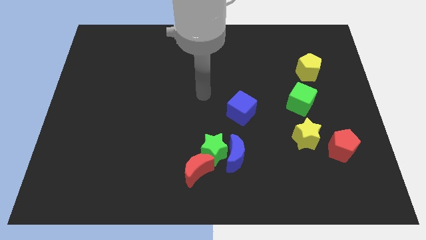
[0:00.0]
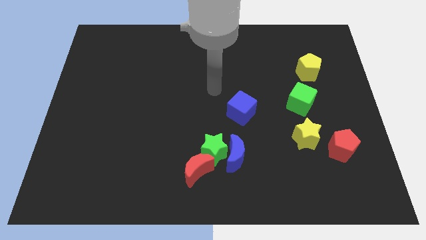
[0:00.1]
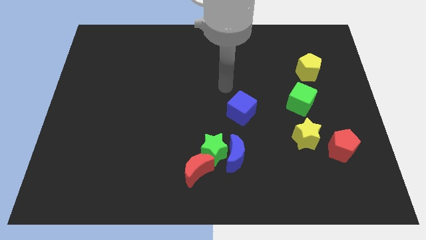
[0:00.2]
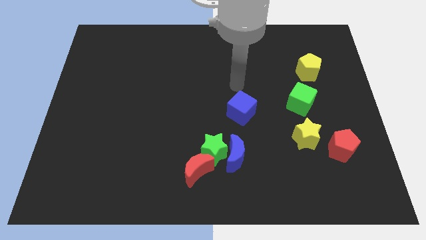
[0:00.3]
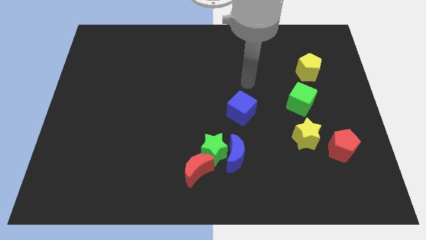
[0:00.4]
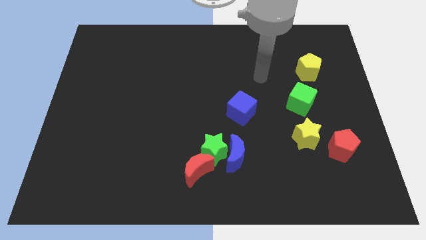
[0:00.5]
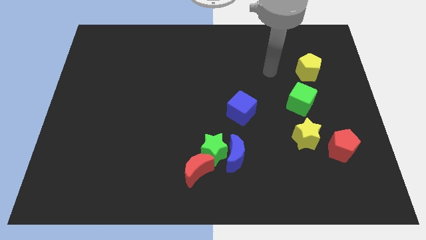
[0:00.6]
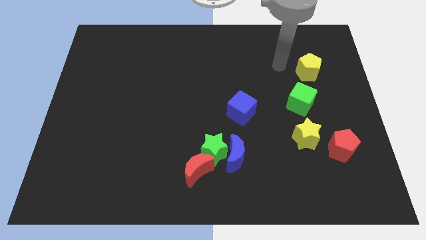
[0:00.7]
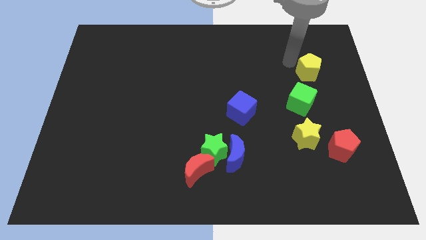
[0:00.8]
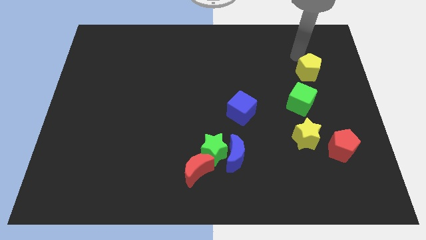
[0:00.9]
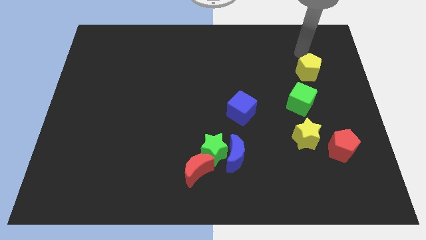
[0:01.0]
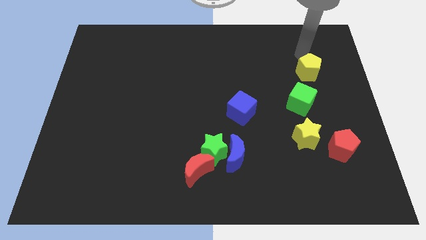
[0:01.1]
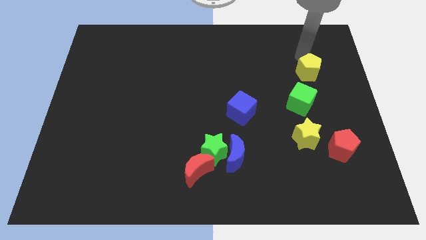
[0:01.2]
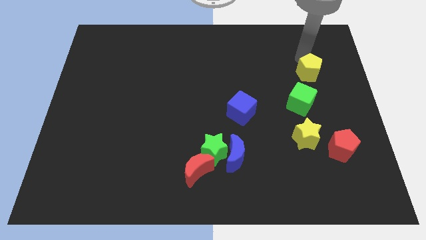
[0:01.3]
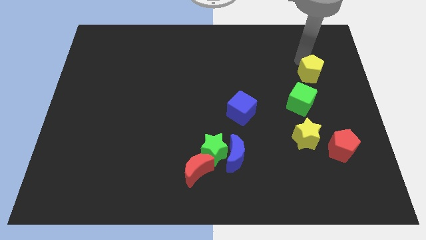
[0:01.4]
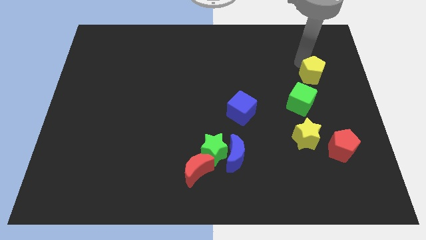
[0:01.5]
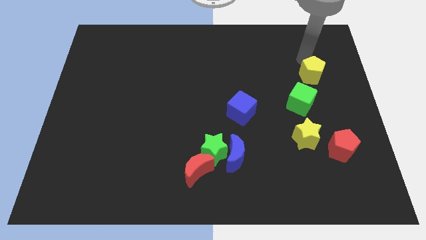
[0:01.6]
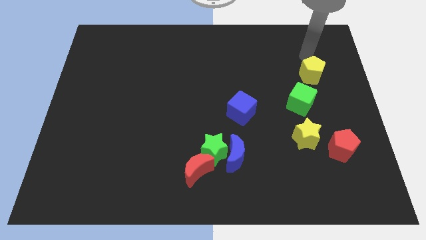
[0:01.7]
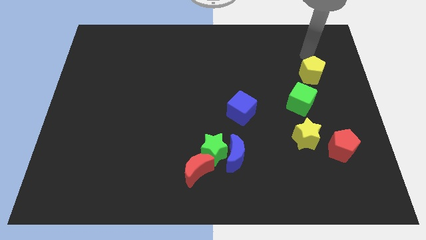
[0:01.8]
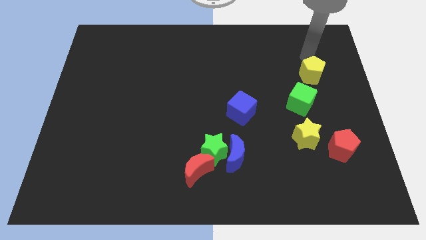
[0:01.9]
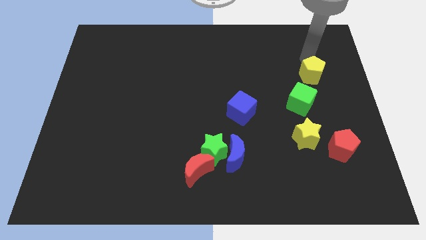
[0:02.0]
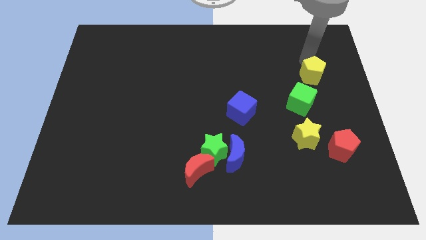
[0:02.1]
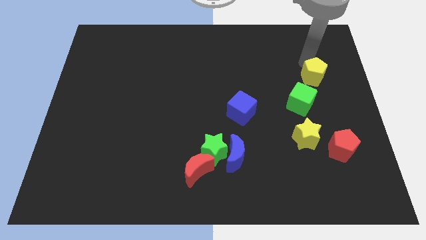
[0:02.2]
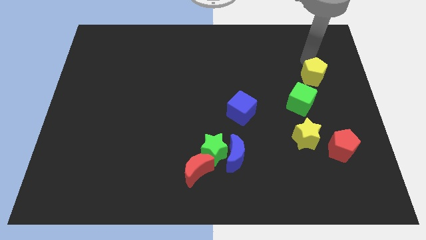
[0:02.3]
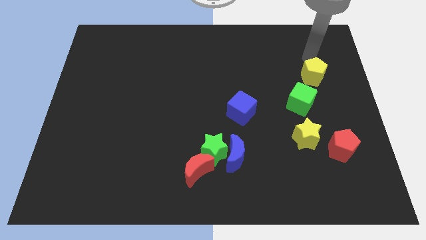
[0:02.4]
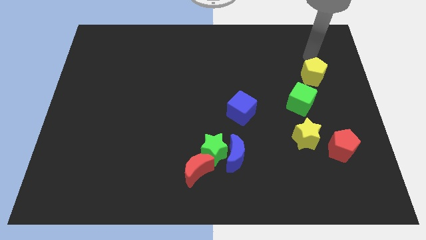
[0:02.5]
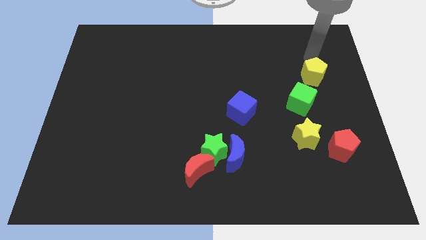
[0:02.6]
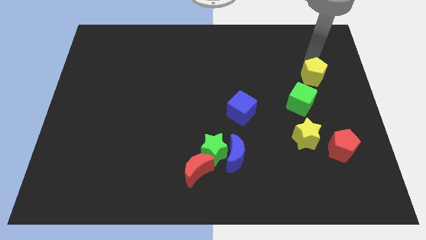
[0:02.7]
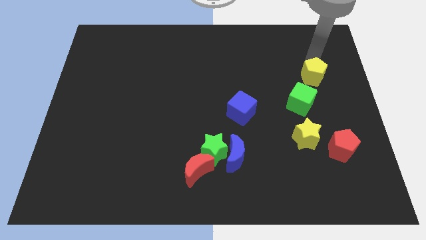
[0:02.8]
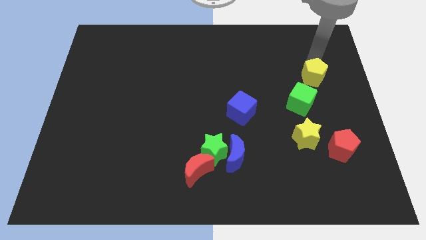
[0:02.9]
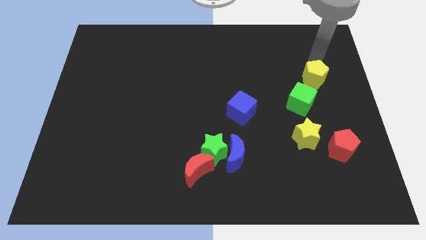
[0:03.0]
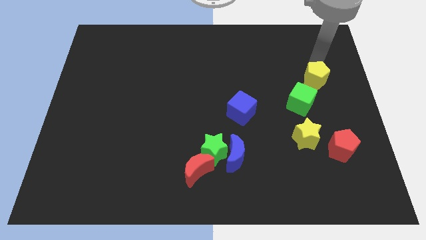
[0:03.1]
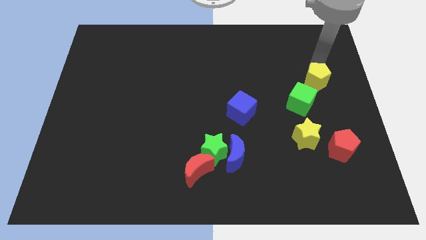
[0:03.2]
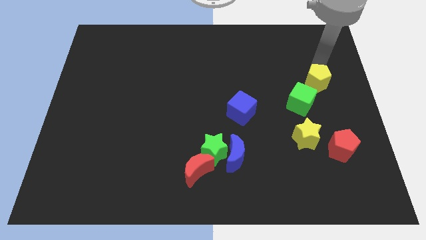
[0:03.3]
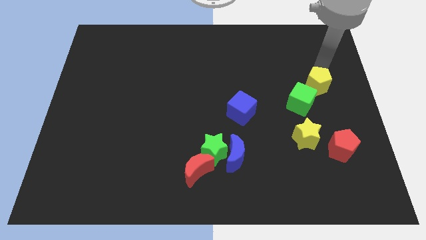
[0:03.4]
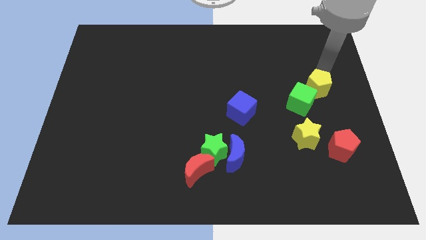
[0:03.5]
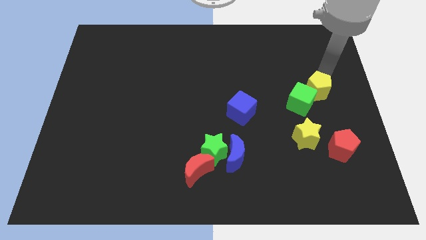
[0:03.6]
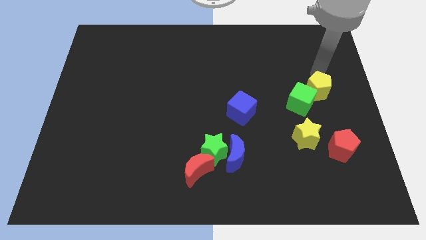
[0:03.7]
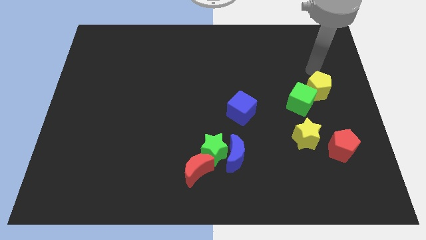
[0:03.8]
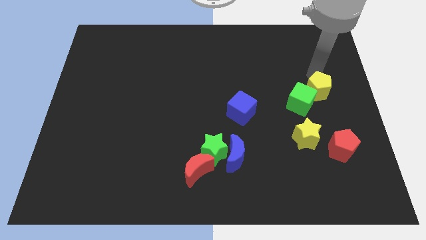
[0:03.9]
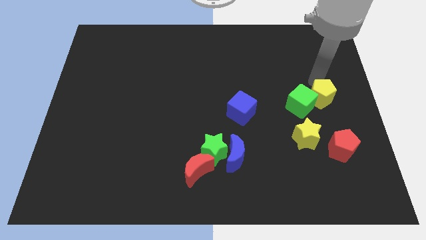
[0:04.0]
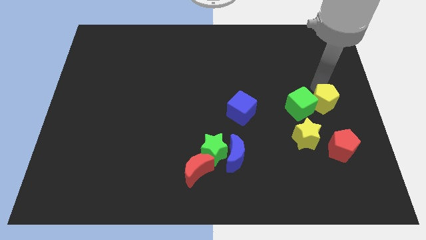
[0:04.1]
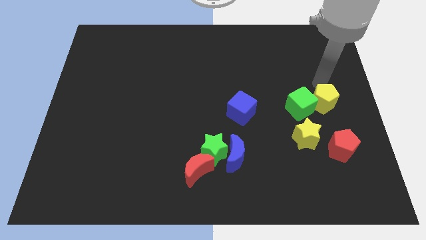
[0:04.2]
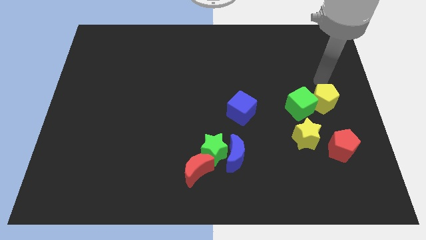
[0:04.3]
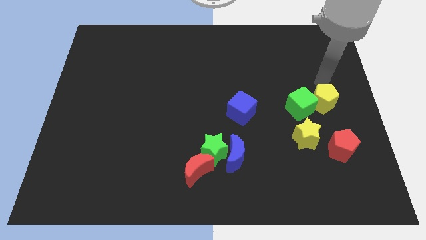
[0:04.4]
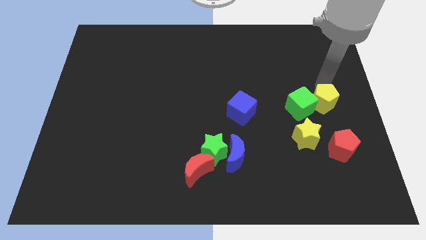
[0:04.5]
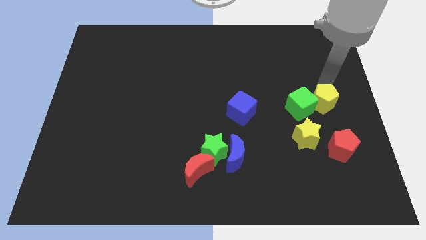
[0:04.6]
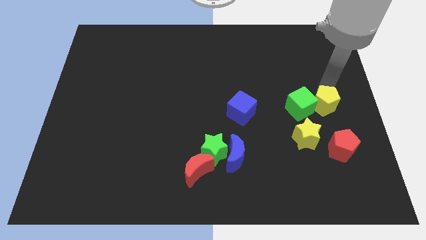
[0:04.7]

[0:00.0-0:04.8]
put the yellow pentagon to the bottom right side of the green cube

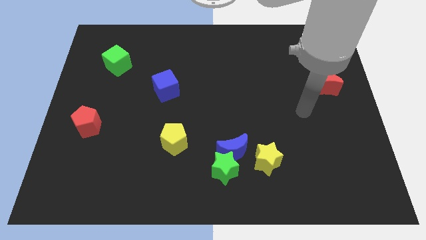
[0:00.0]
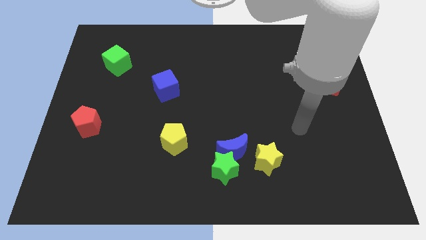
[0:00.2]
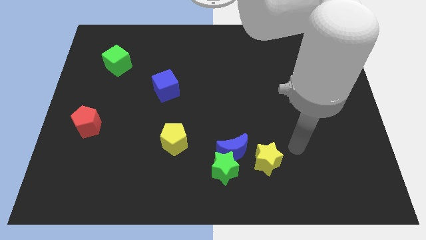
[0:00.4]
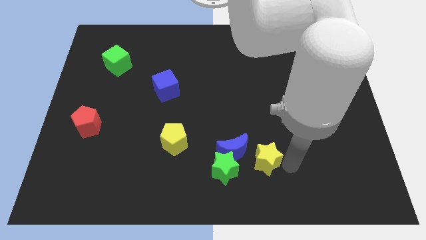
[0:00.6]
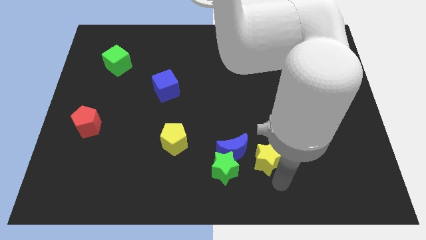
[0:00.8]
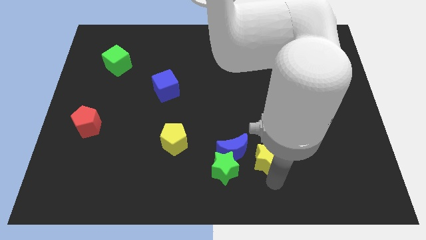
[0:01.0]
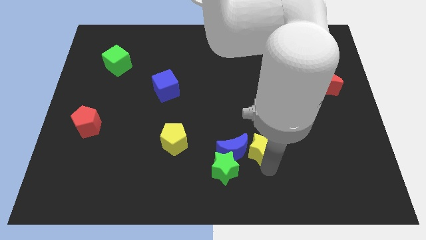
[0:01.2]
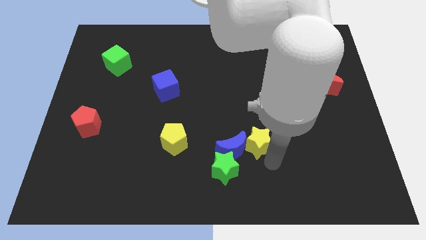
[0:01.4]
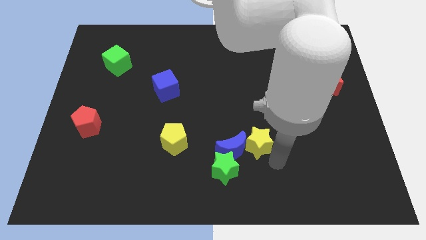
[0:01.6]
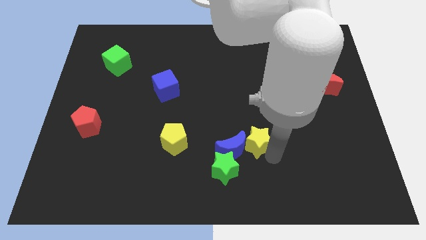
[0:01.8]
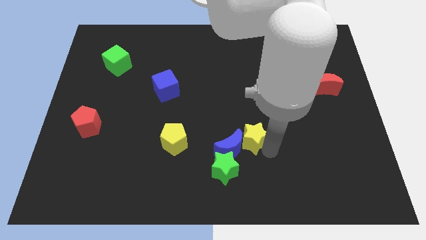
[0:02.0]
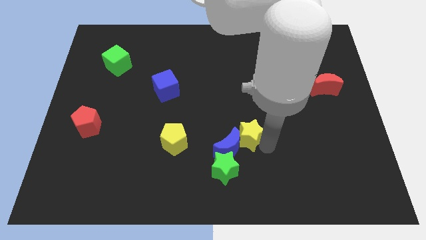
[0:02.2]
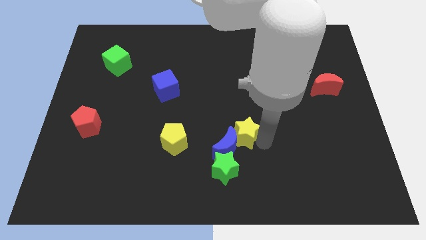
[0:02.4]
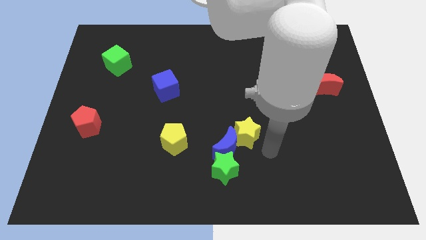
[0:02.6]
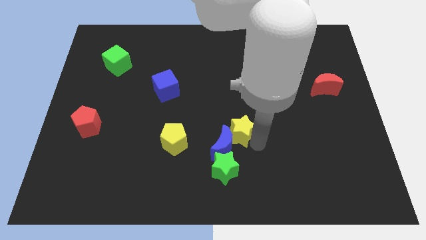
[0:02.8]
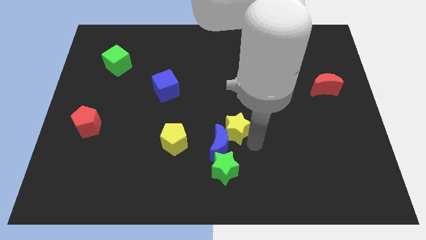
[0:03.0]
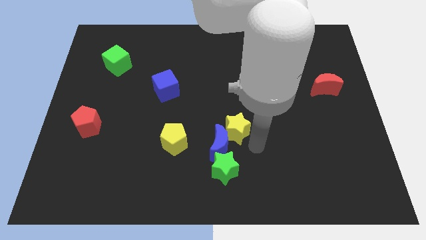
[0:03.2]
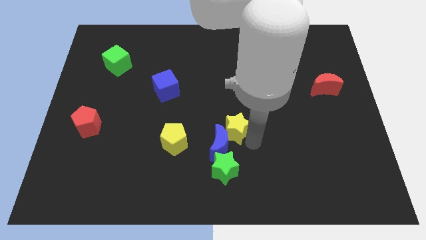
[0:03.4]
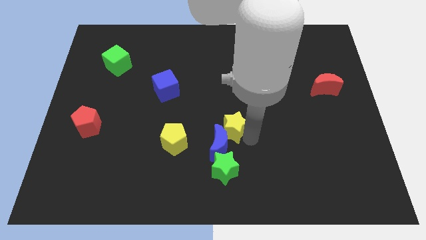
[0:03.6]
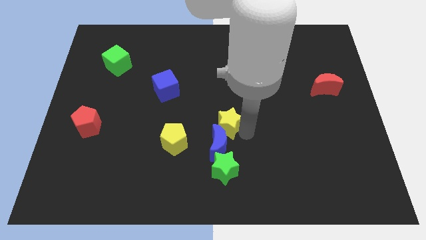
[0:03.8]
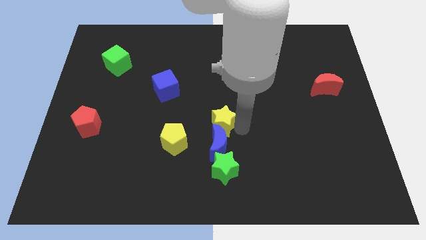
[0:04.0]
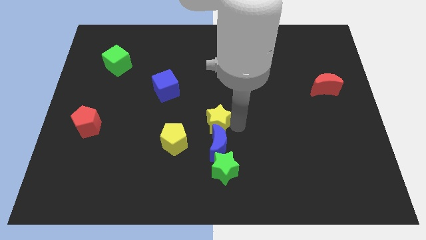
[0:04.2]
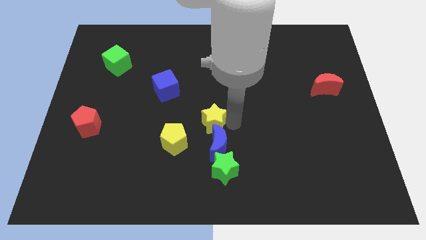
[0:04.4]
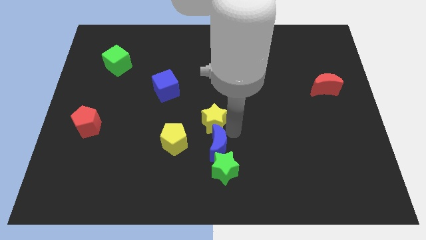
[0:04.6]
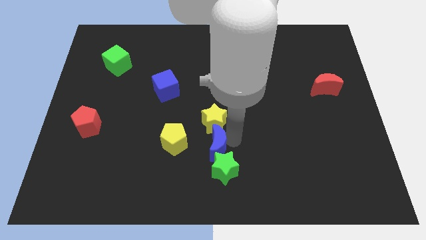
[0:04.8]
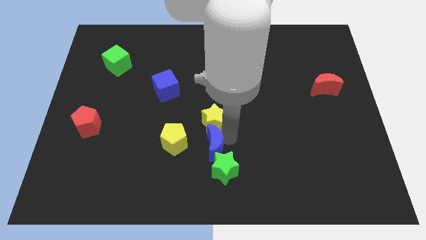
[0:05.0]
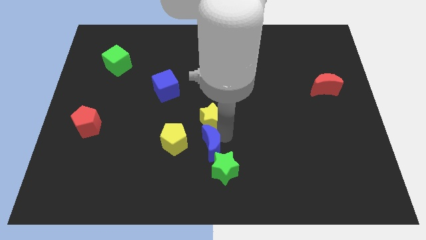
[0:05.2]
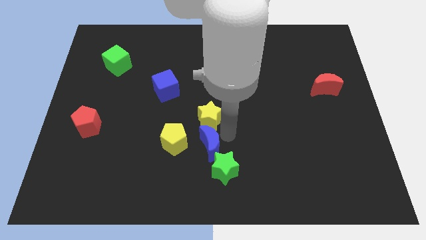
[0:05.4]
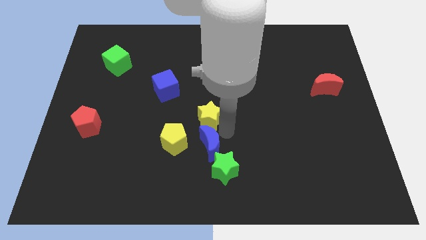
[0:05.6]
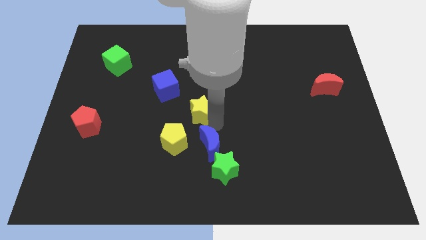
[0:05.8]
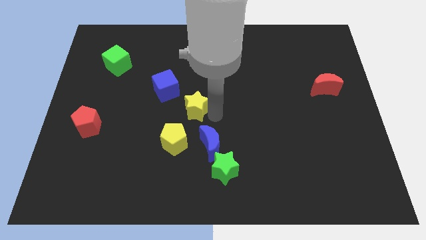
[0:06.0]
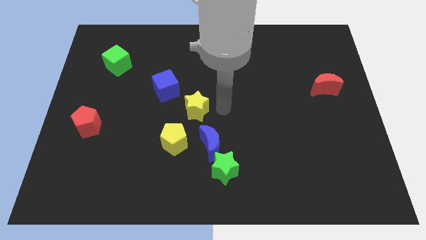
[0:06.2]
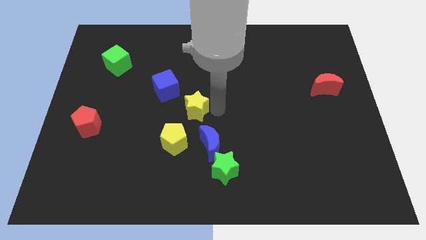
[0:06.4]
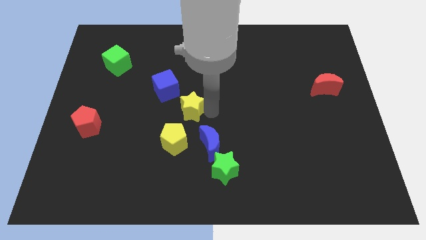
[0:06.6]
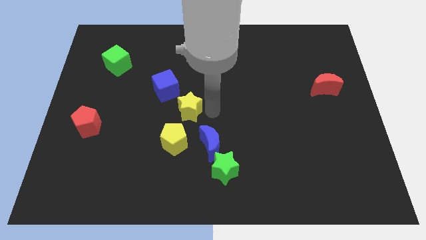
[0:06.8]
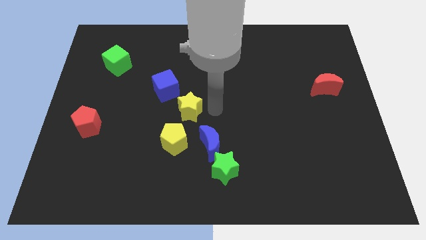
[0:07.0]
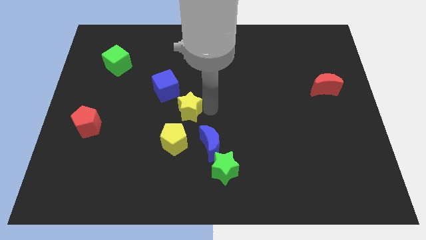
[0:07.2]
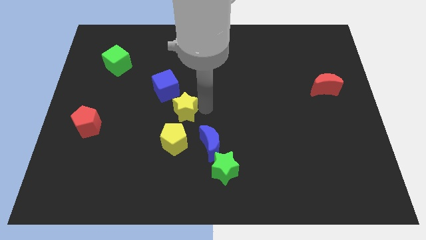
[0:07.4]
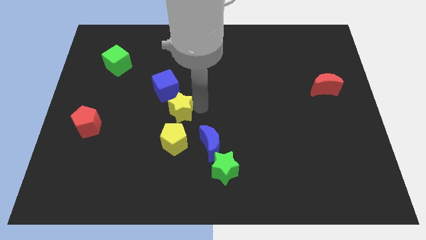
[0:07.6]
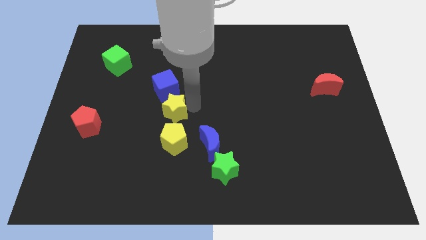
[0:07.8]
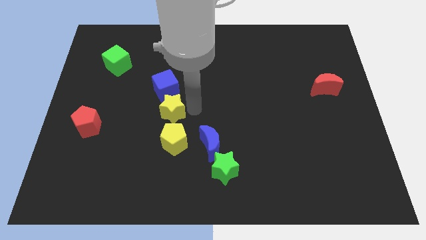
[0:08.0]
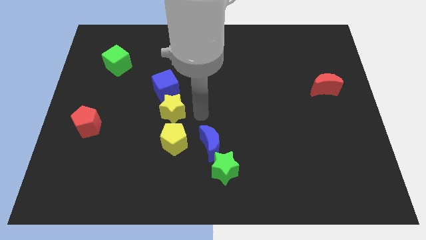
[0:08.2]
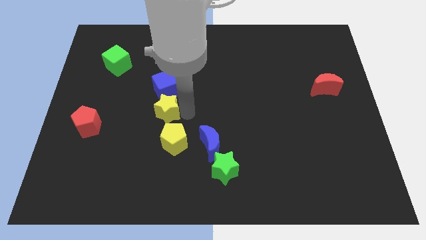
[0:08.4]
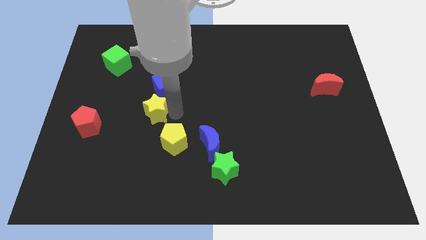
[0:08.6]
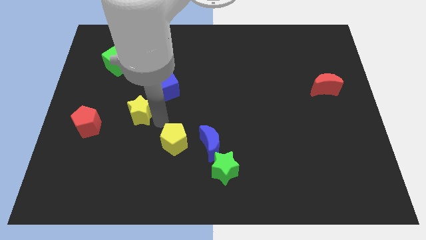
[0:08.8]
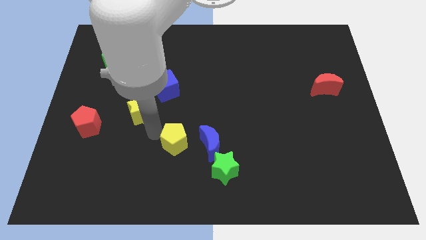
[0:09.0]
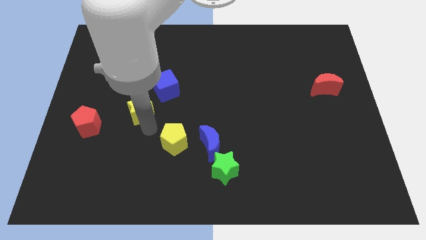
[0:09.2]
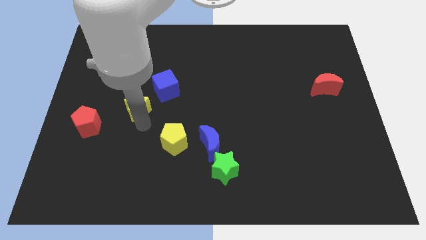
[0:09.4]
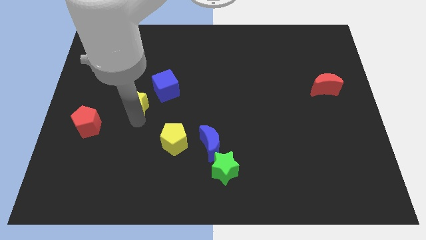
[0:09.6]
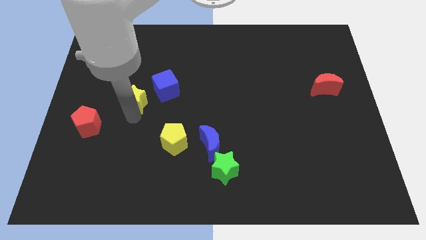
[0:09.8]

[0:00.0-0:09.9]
slide the yellow star just left of the blue cube
